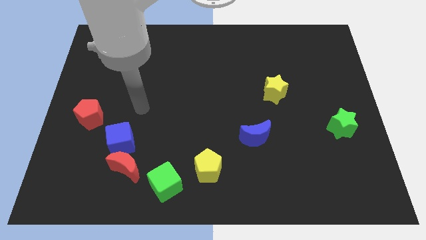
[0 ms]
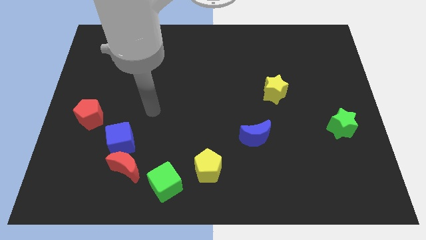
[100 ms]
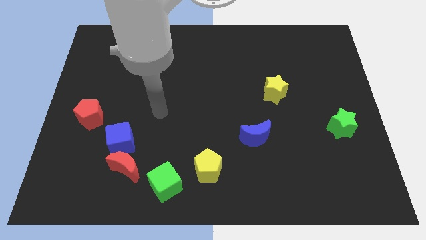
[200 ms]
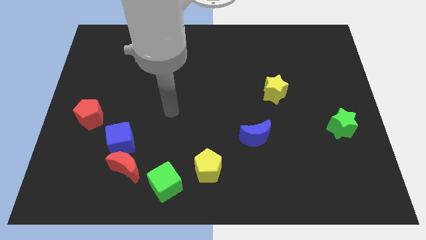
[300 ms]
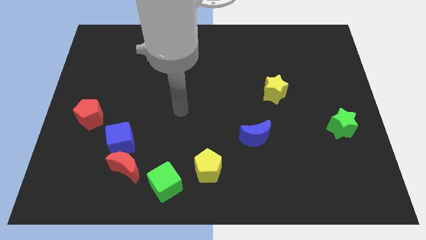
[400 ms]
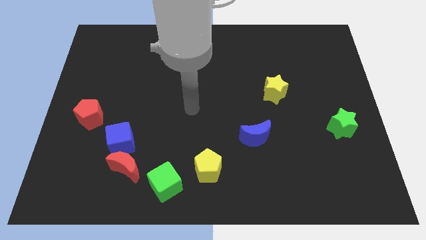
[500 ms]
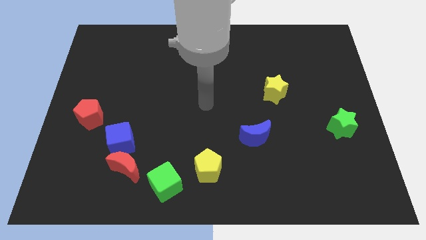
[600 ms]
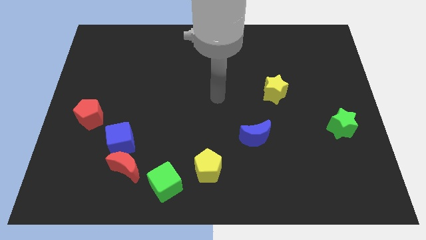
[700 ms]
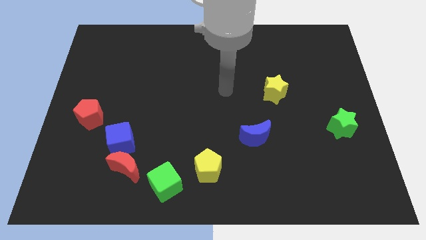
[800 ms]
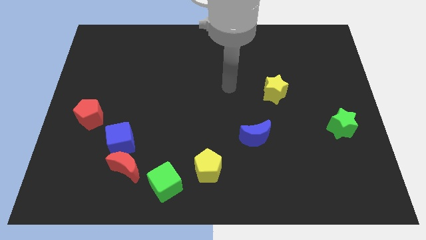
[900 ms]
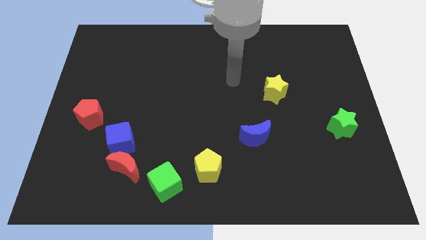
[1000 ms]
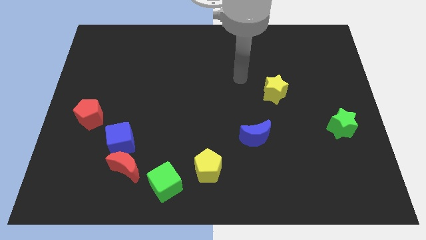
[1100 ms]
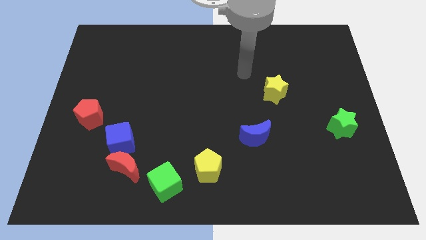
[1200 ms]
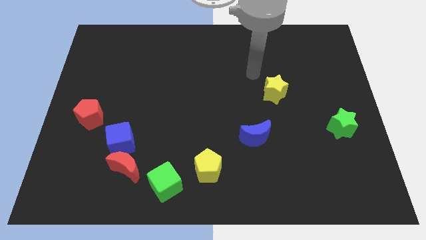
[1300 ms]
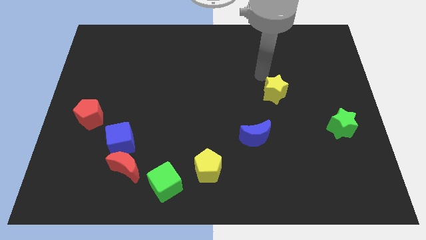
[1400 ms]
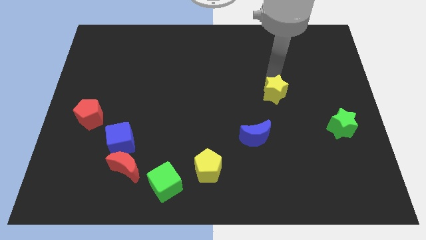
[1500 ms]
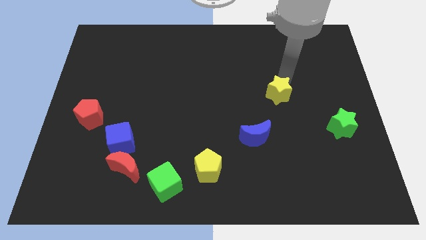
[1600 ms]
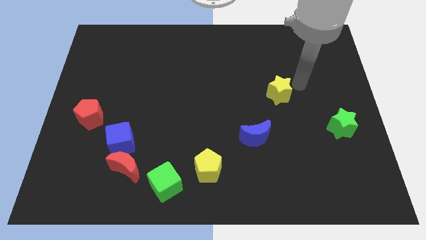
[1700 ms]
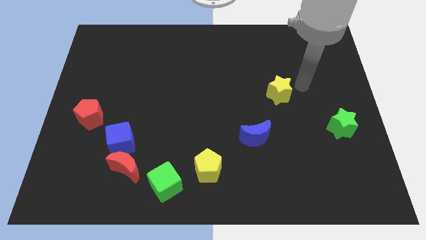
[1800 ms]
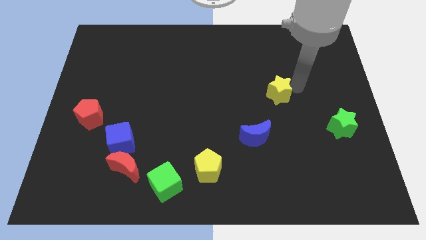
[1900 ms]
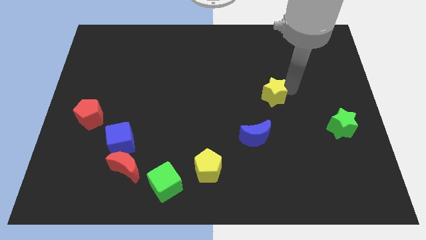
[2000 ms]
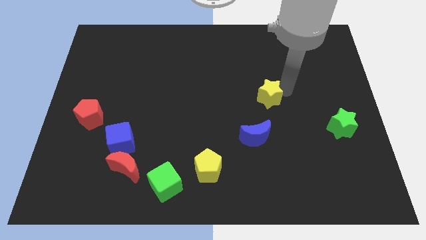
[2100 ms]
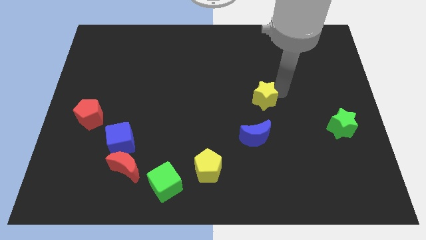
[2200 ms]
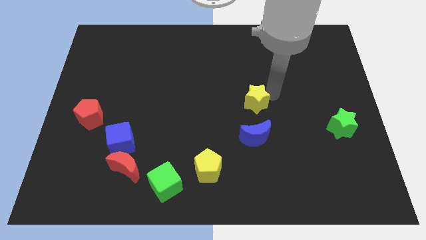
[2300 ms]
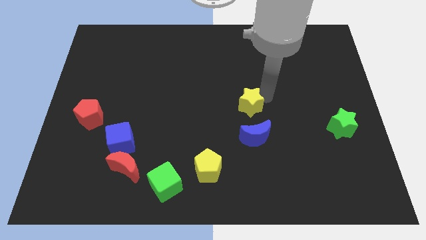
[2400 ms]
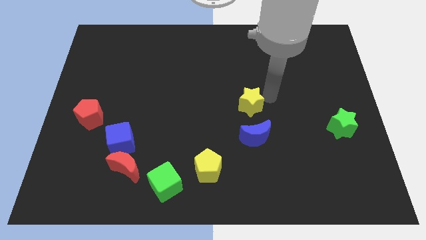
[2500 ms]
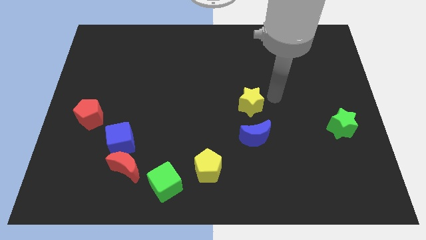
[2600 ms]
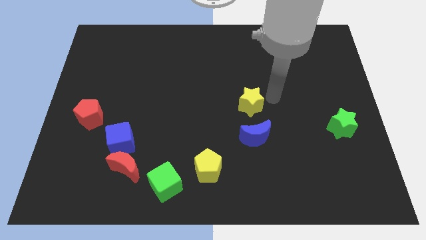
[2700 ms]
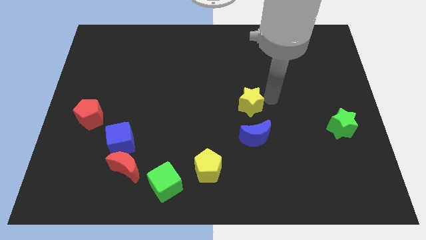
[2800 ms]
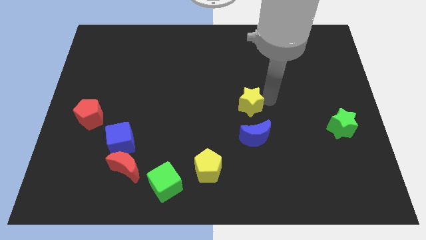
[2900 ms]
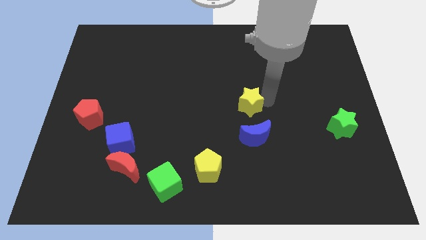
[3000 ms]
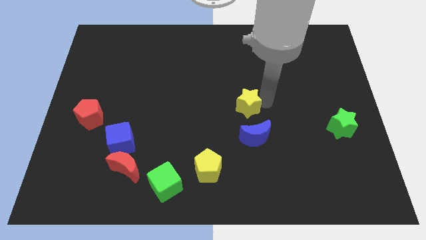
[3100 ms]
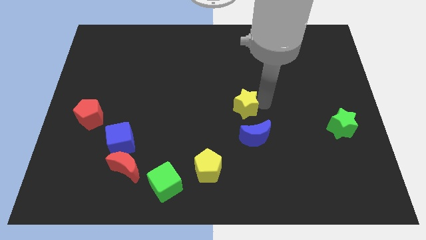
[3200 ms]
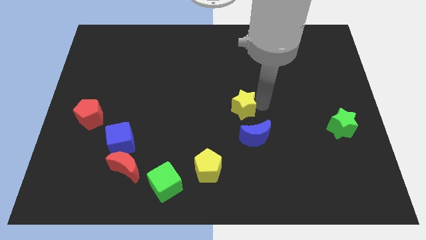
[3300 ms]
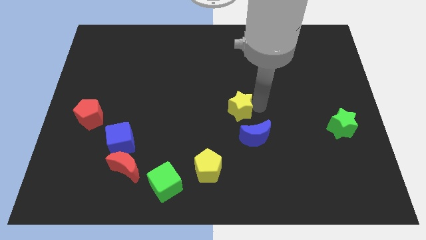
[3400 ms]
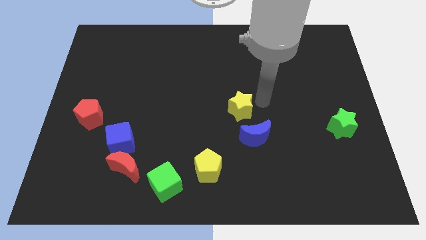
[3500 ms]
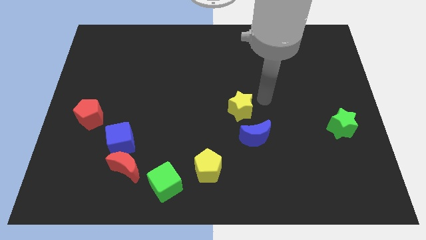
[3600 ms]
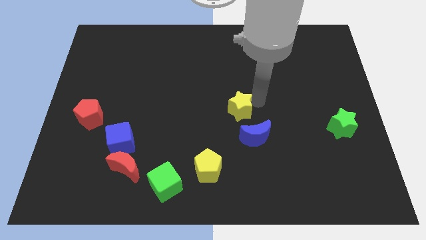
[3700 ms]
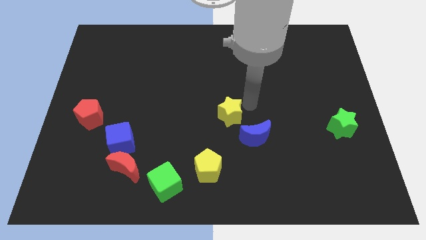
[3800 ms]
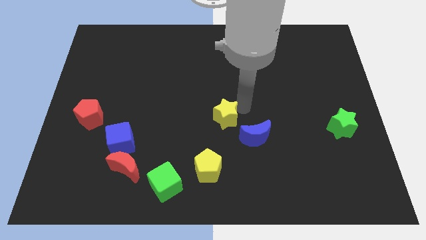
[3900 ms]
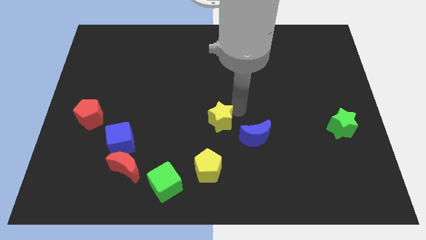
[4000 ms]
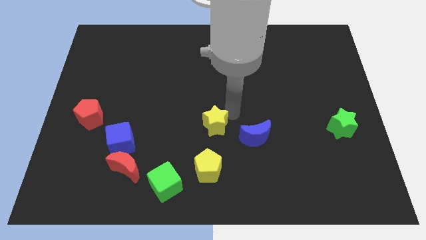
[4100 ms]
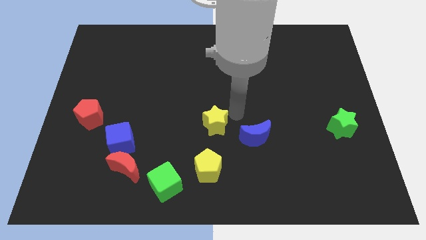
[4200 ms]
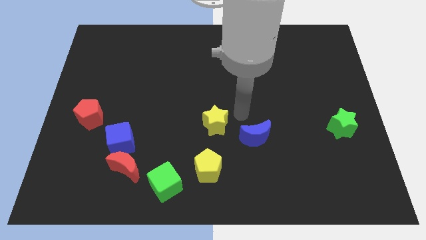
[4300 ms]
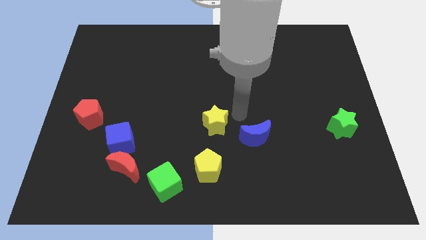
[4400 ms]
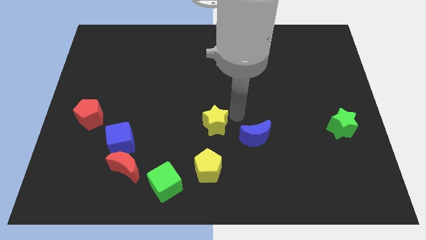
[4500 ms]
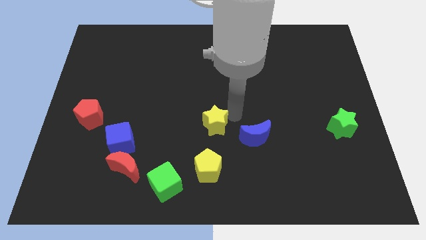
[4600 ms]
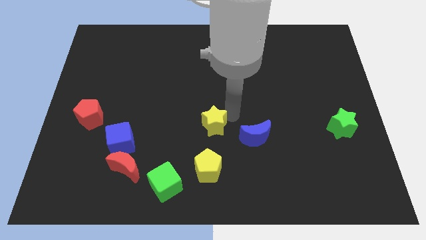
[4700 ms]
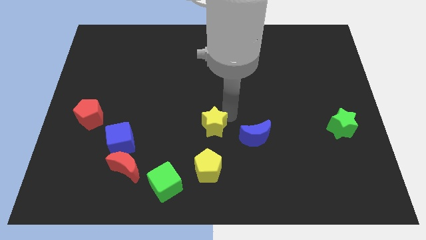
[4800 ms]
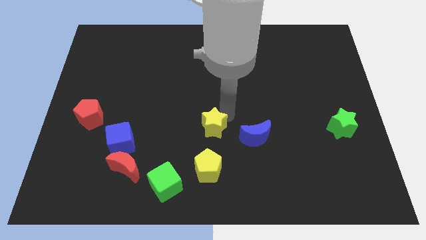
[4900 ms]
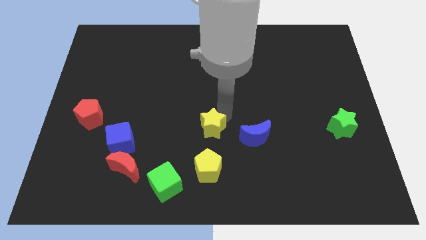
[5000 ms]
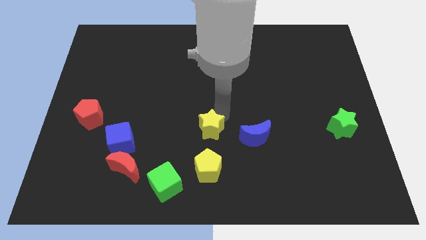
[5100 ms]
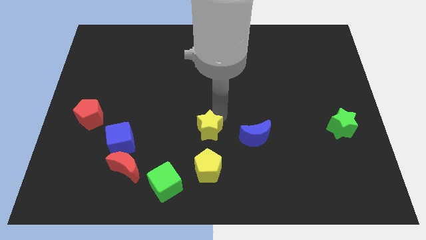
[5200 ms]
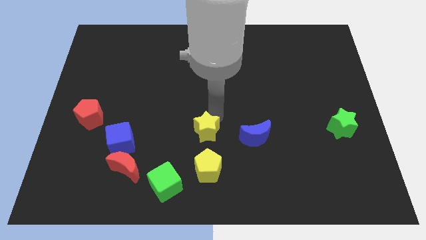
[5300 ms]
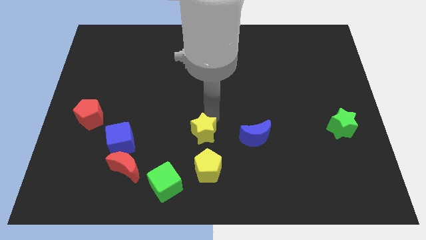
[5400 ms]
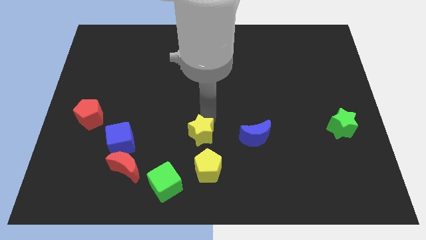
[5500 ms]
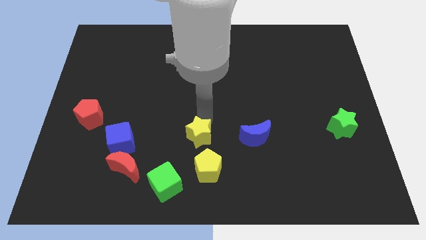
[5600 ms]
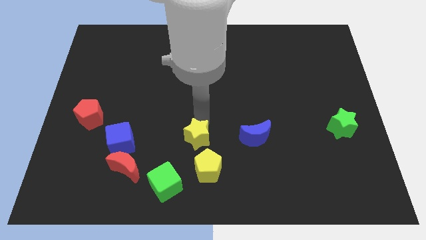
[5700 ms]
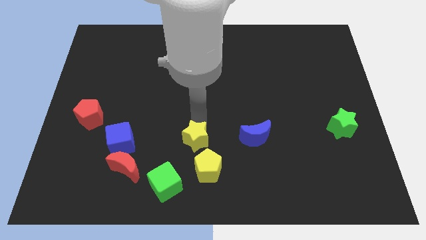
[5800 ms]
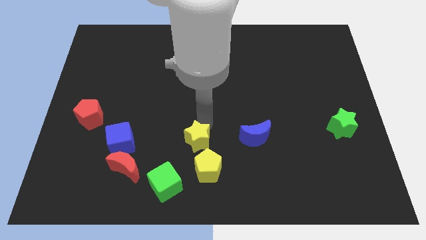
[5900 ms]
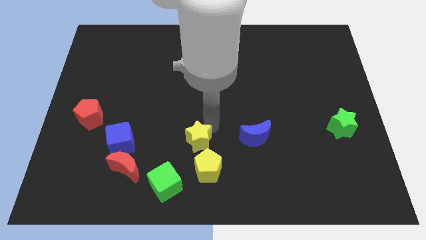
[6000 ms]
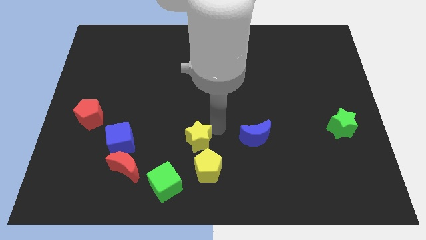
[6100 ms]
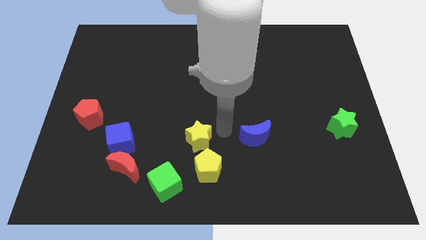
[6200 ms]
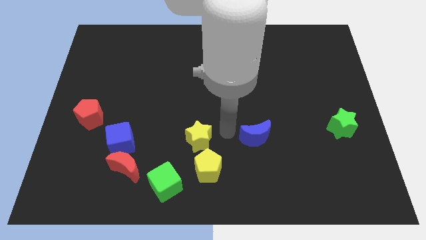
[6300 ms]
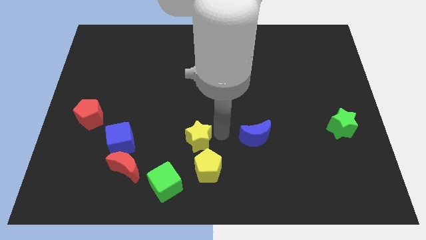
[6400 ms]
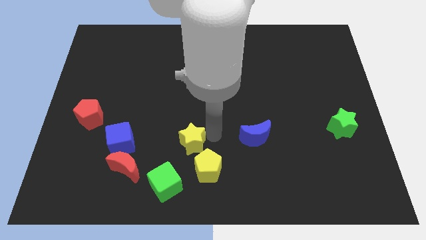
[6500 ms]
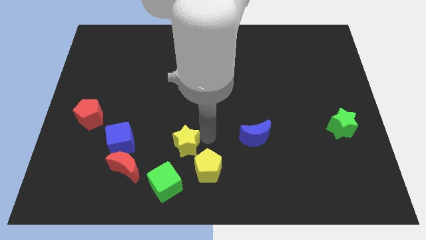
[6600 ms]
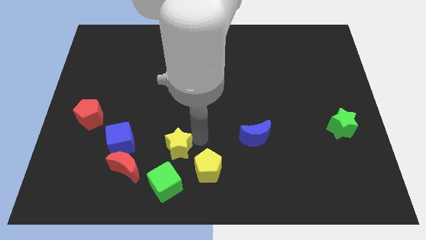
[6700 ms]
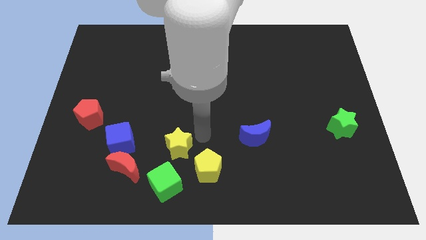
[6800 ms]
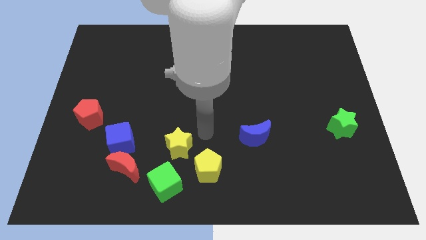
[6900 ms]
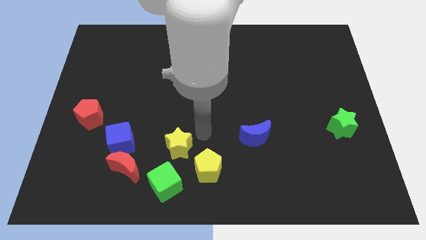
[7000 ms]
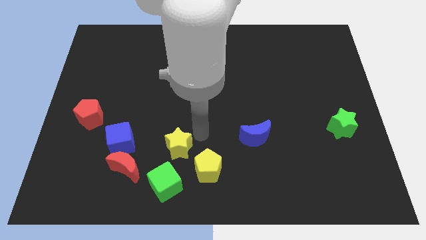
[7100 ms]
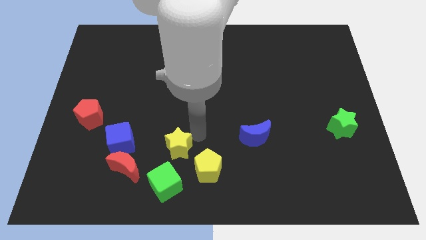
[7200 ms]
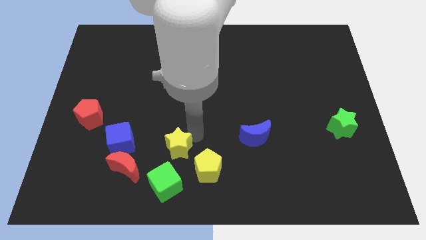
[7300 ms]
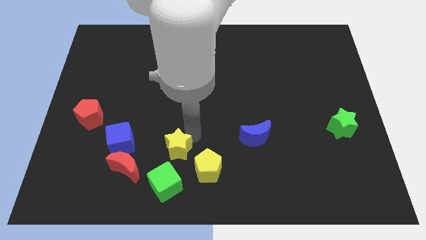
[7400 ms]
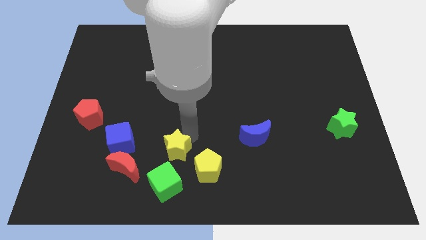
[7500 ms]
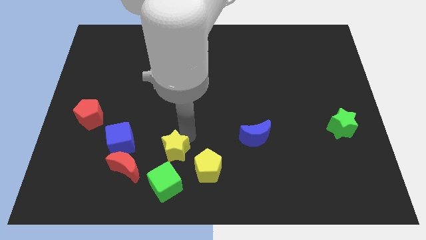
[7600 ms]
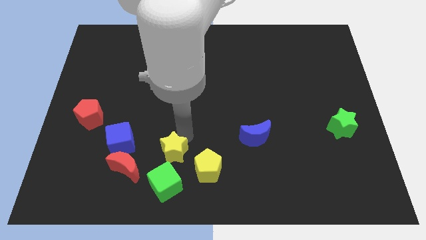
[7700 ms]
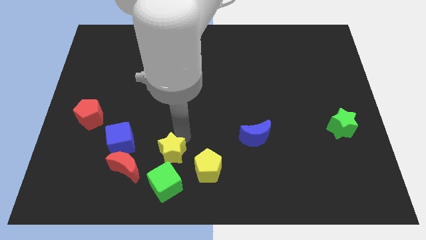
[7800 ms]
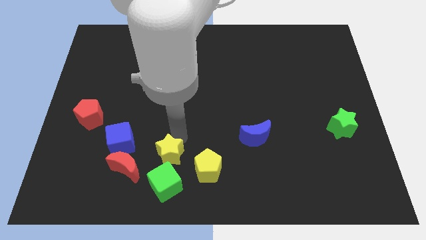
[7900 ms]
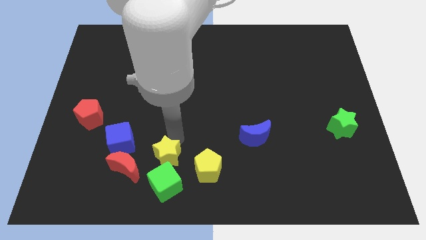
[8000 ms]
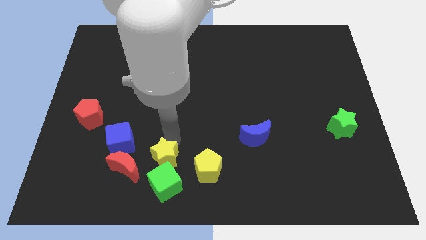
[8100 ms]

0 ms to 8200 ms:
slide the yellow star to the bottom right side of the blue cube
